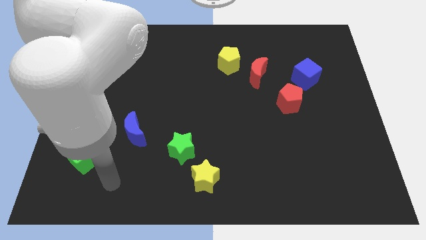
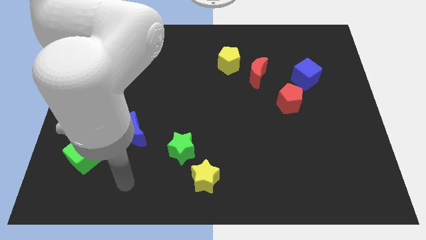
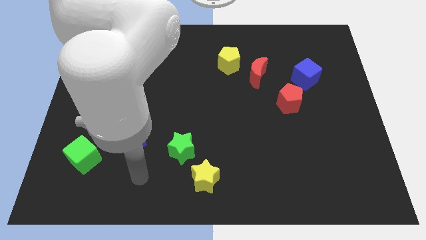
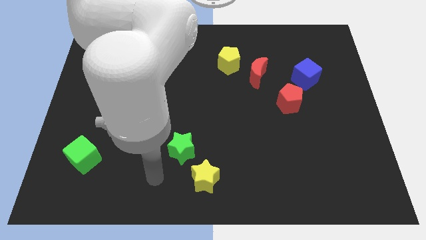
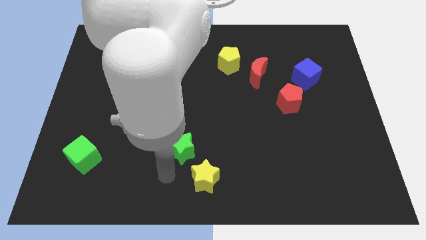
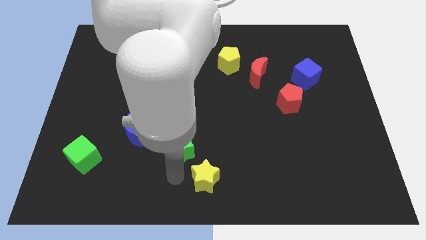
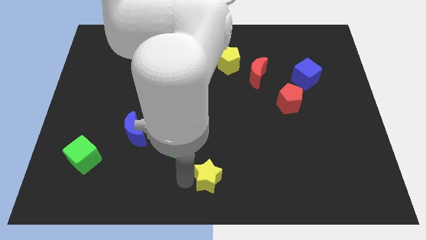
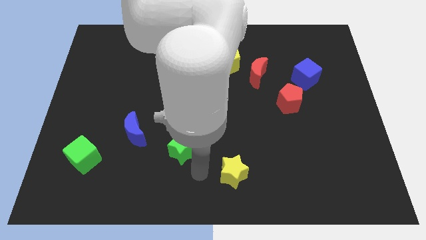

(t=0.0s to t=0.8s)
separate the green star from the yellow star

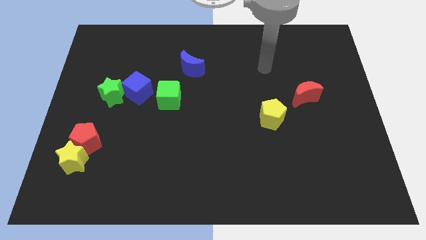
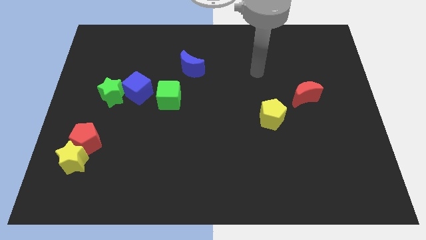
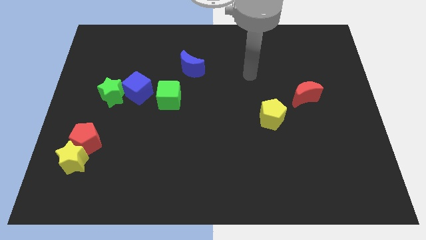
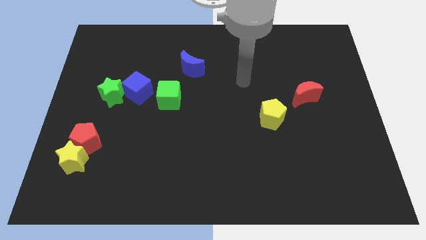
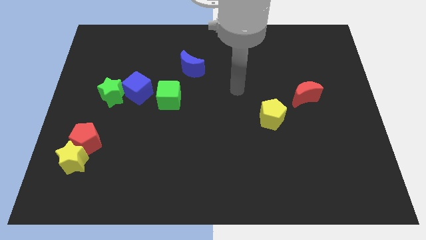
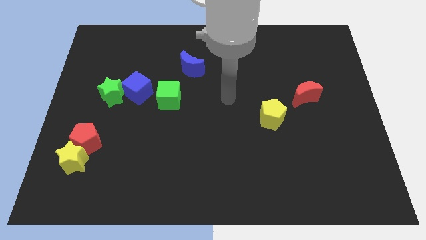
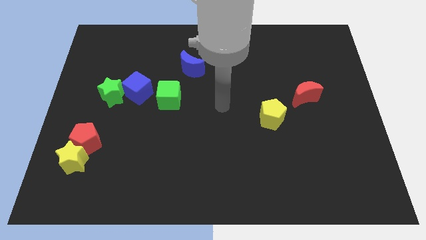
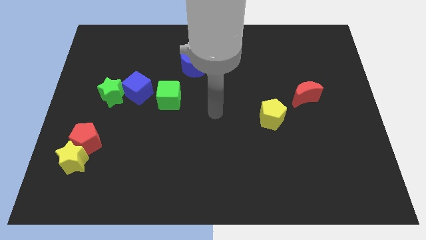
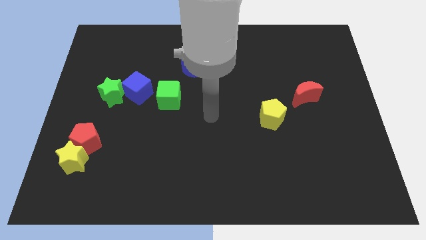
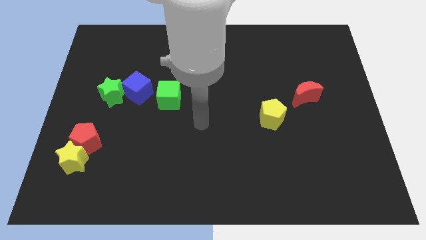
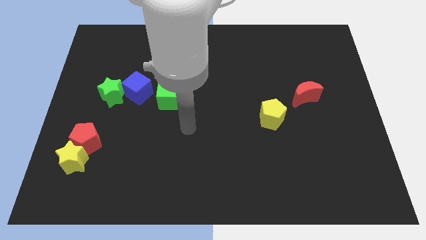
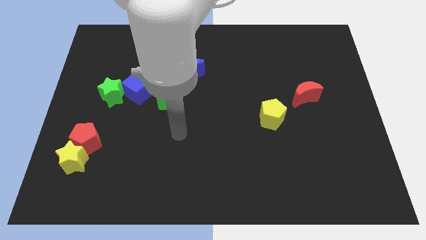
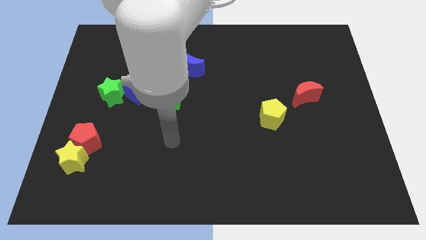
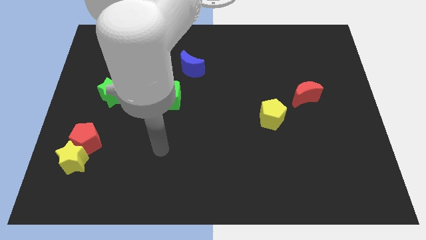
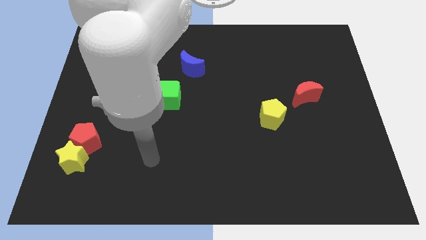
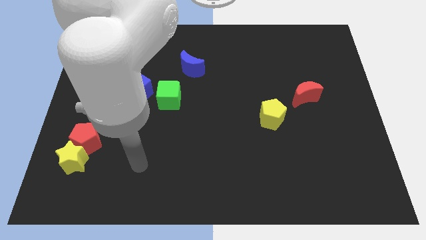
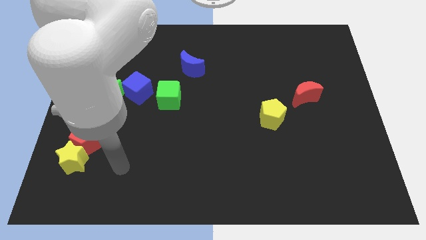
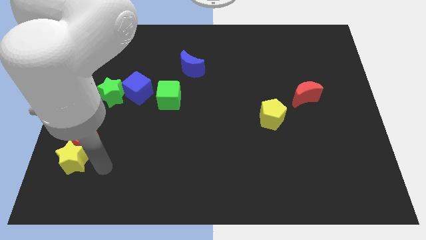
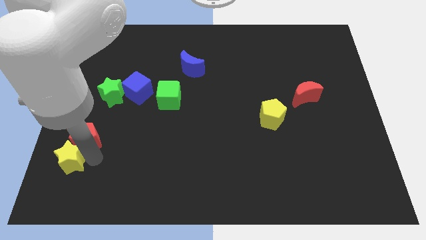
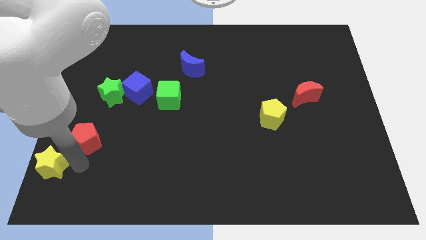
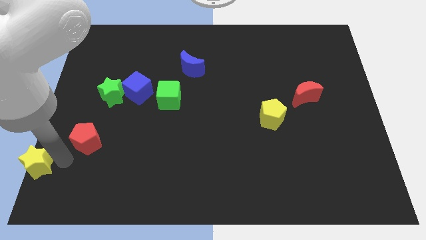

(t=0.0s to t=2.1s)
separate the red pentagon from the yellow star

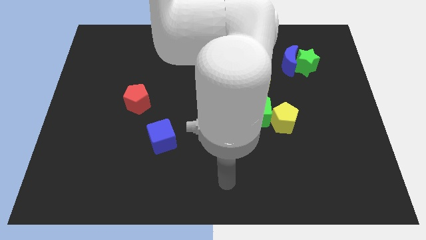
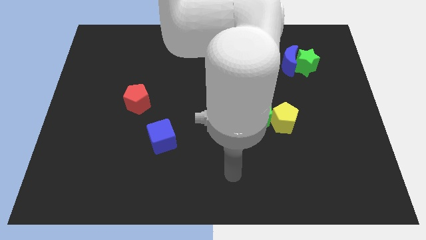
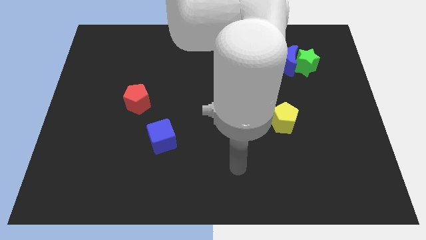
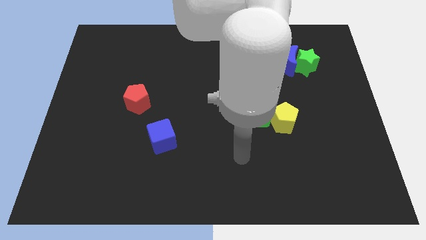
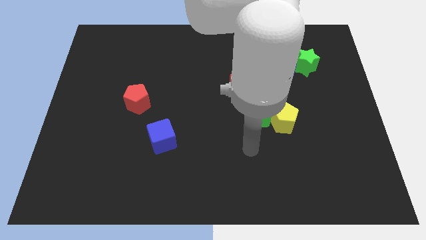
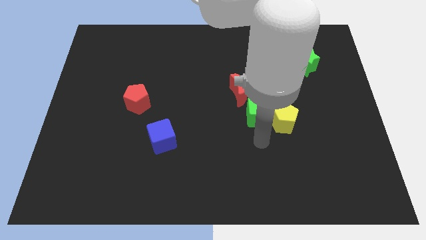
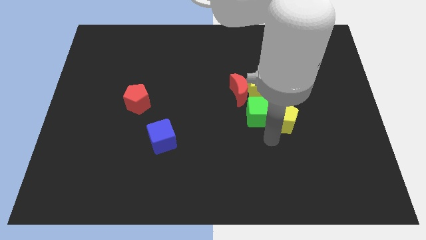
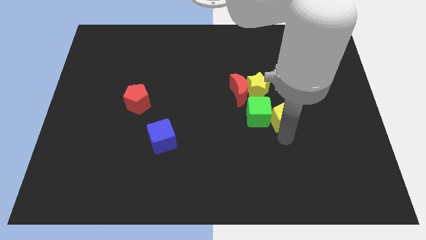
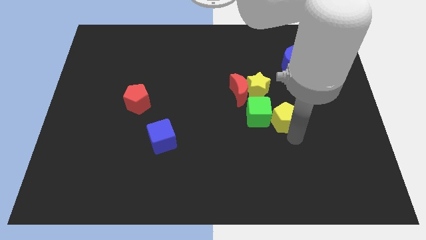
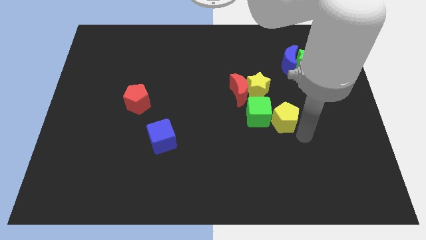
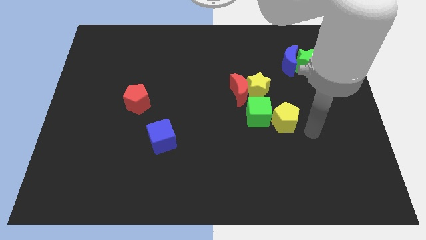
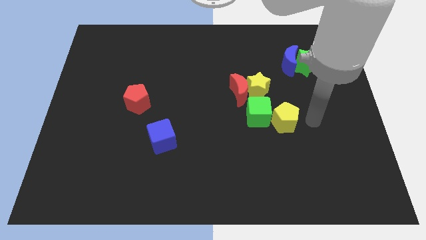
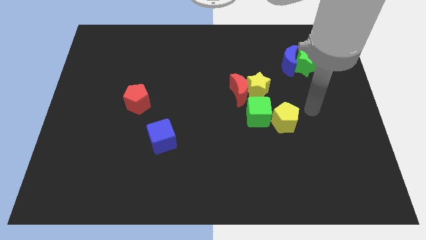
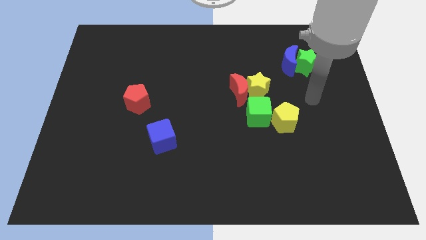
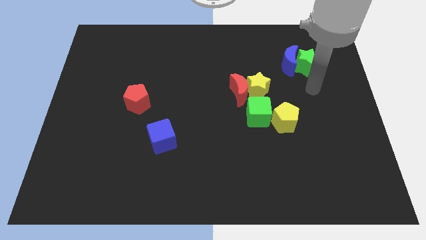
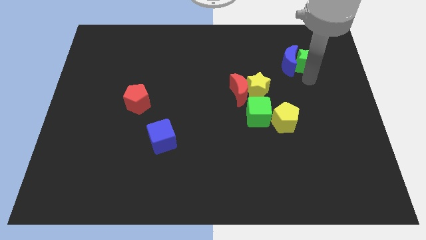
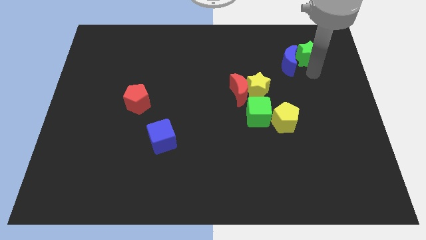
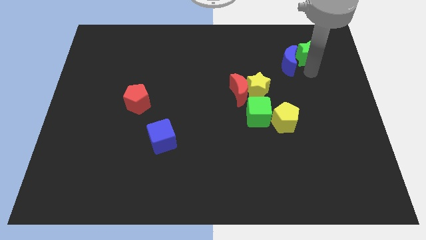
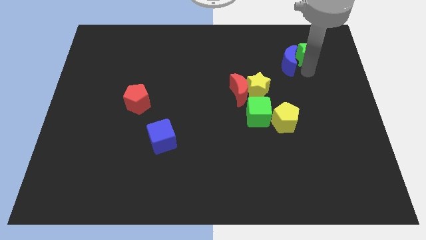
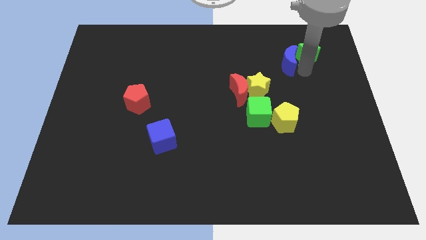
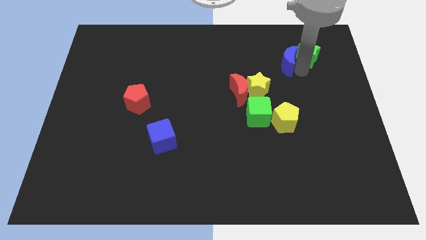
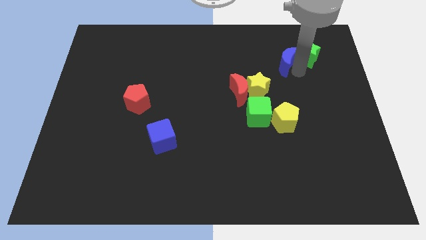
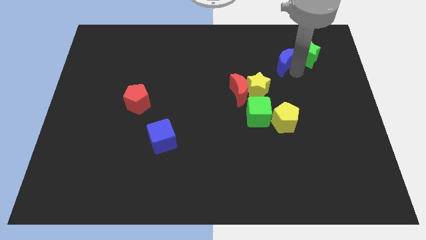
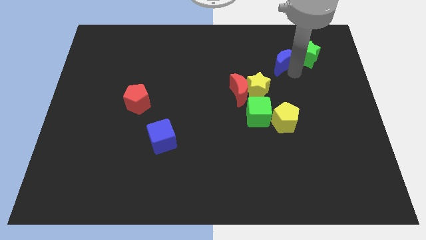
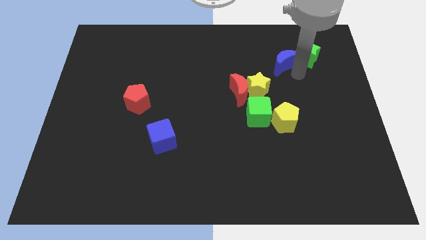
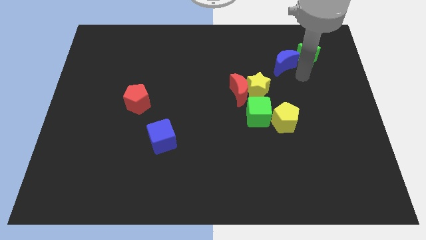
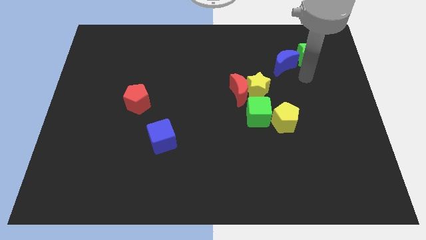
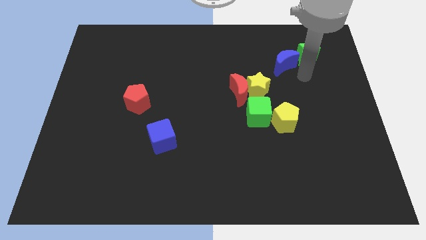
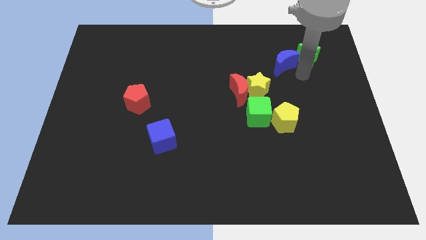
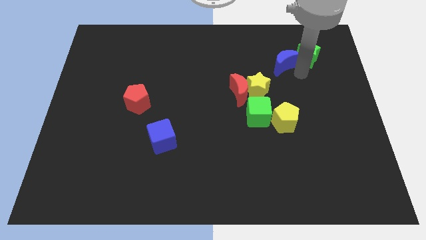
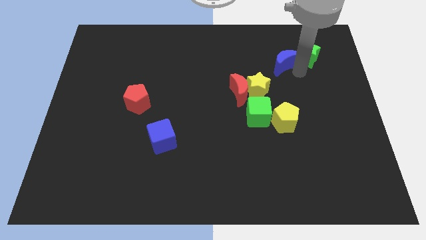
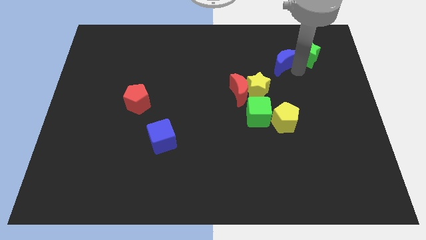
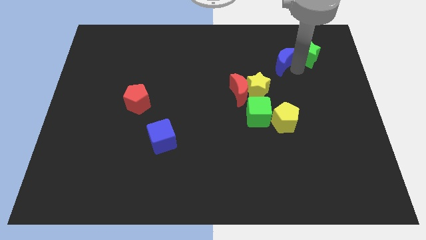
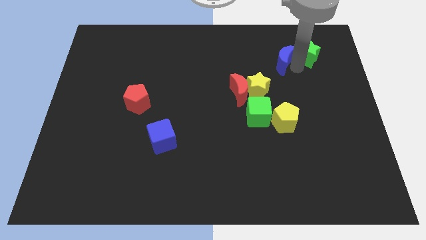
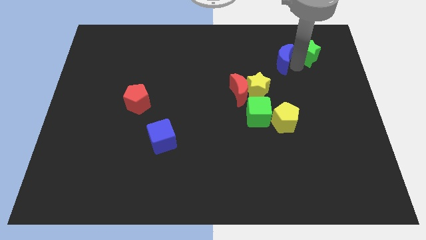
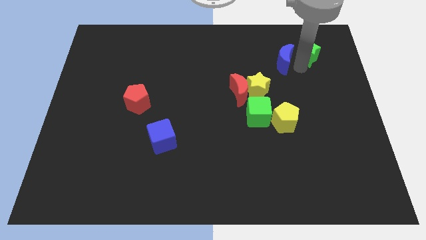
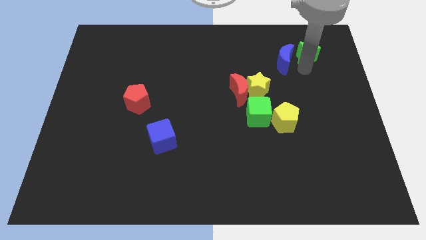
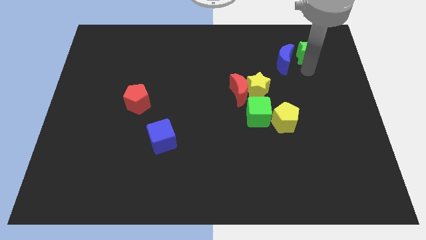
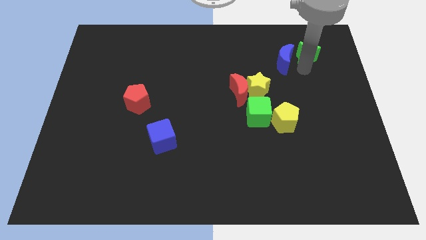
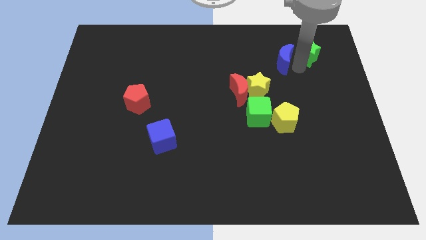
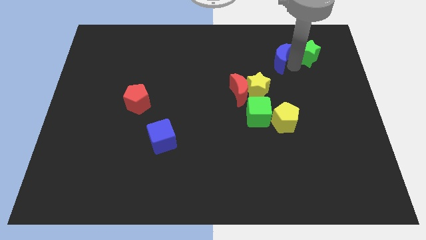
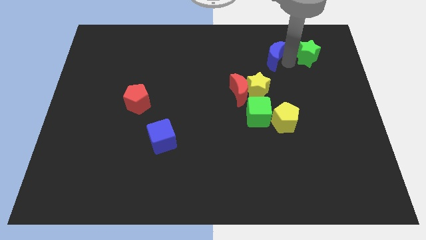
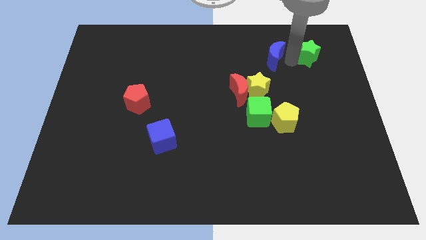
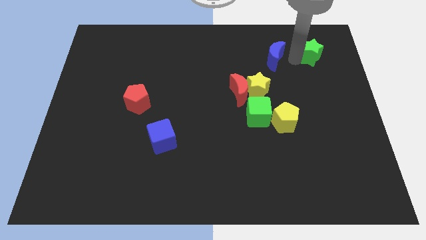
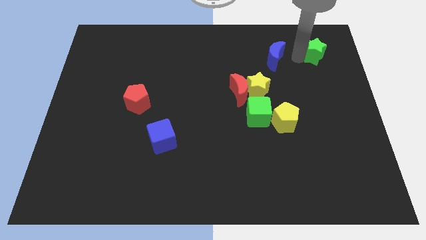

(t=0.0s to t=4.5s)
separate the blue moon from the green star

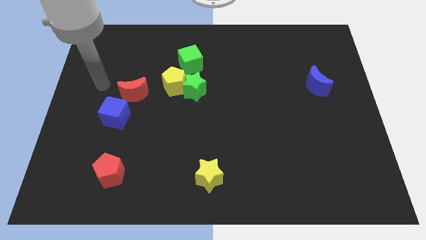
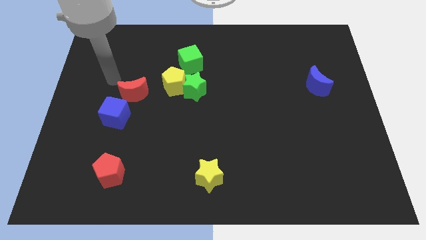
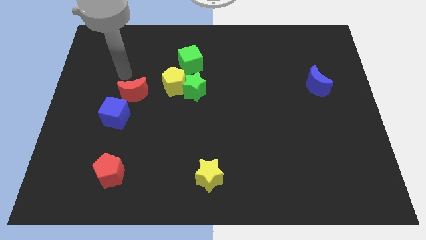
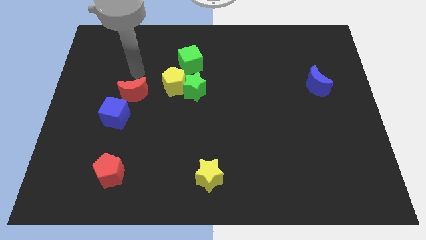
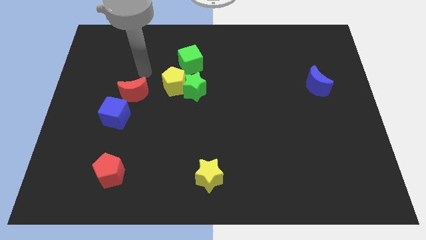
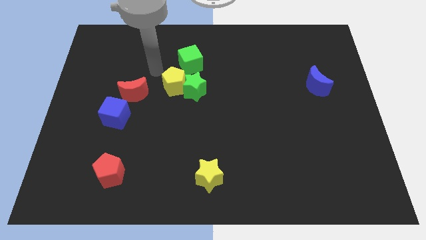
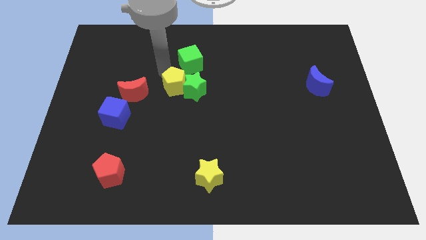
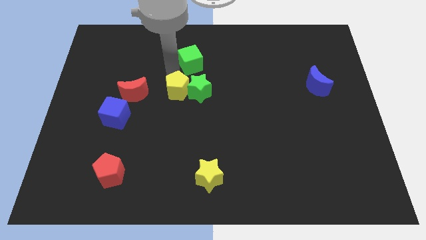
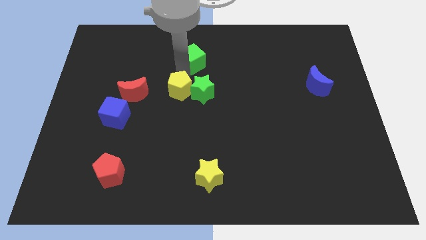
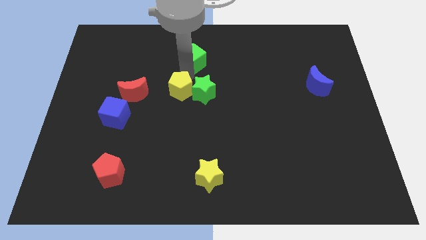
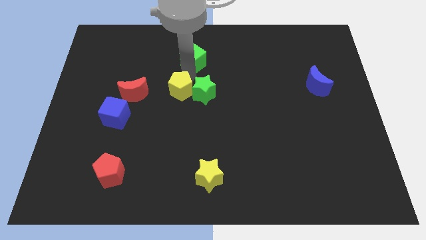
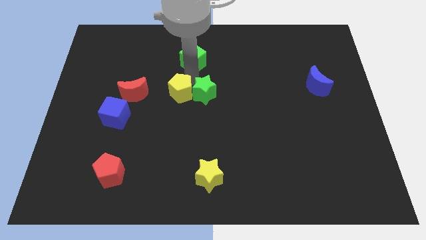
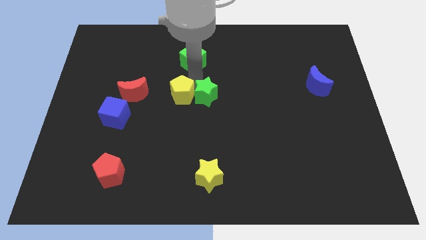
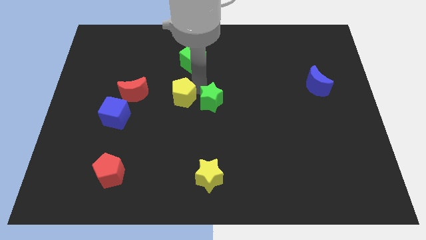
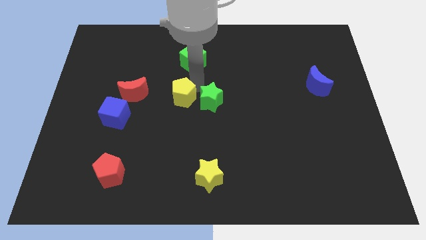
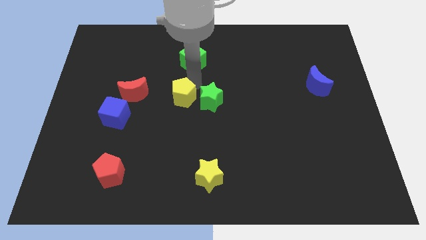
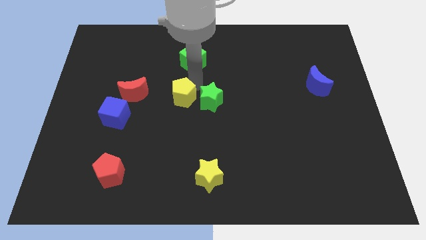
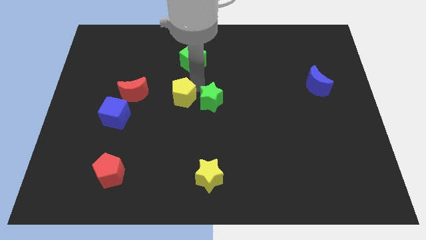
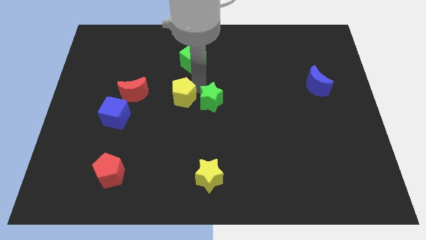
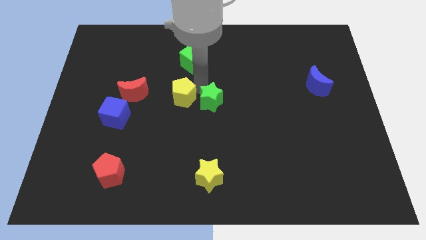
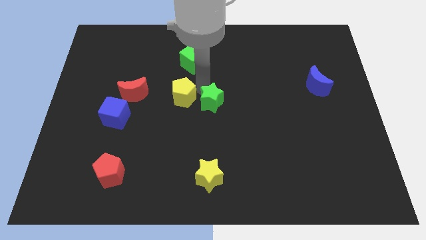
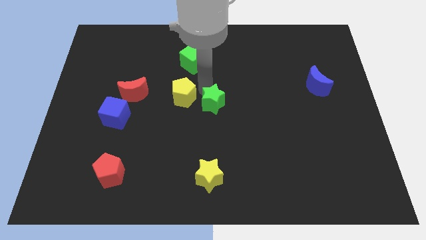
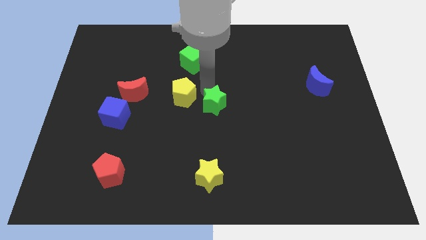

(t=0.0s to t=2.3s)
pull the green star apart from the yellow pentagon and green cube
